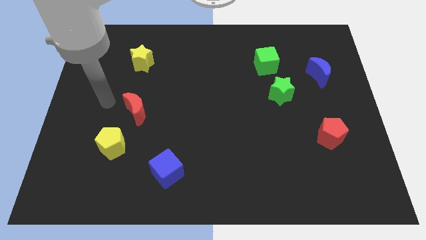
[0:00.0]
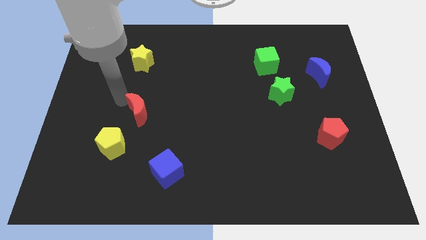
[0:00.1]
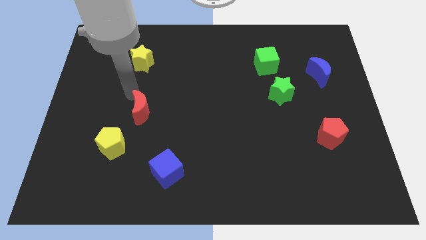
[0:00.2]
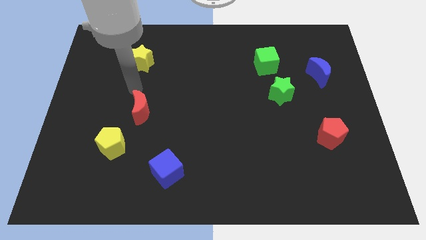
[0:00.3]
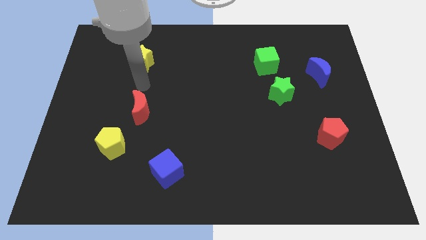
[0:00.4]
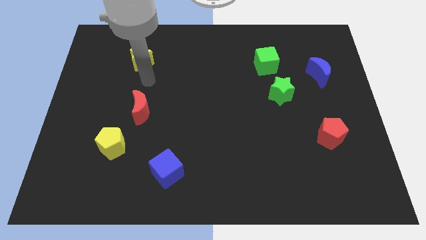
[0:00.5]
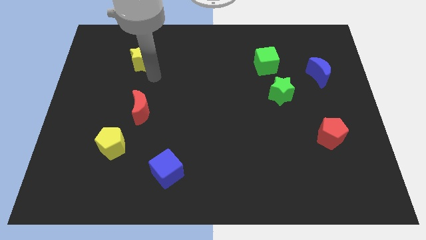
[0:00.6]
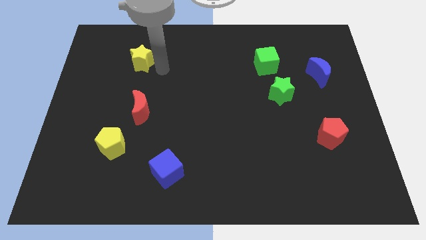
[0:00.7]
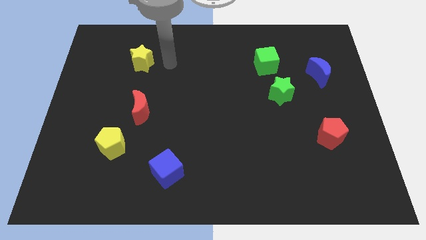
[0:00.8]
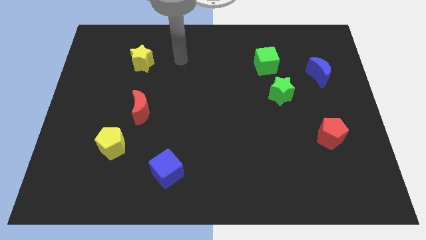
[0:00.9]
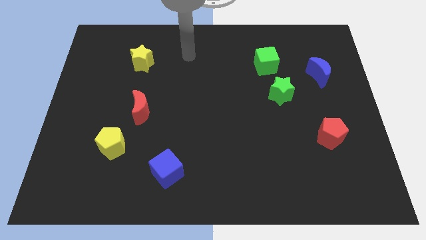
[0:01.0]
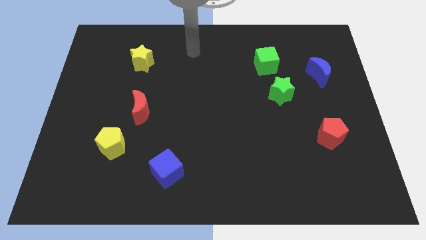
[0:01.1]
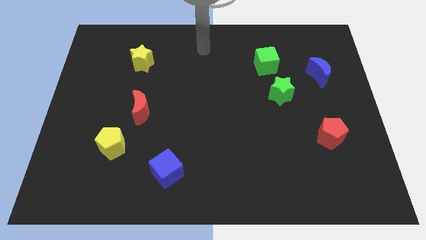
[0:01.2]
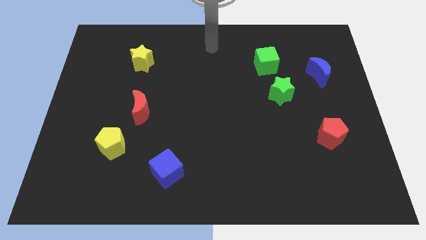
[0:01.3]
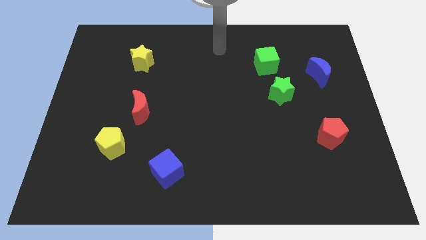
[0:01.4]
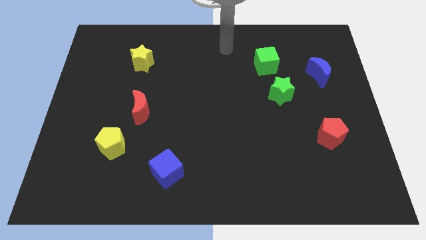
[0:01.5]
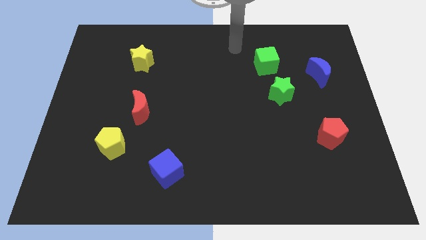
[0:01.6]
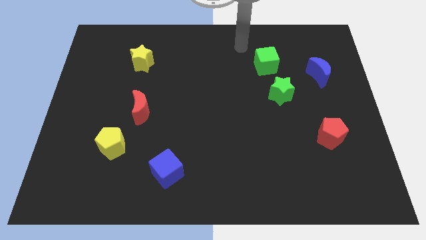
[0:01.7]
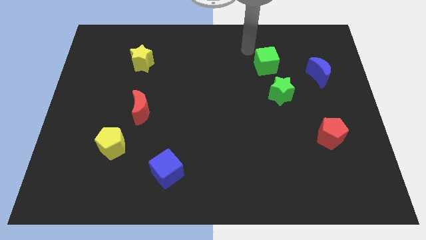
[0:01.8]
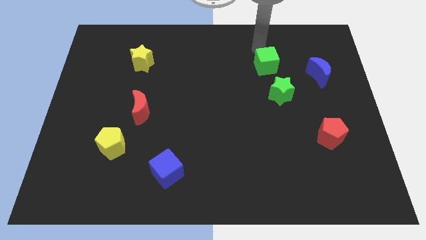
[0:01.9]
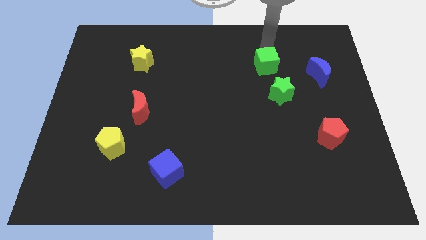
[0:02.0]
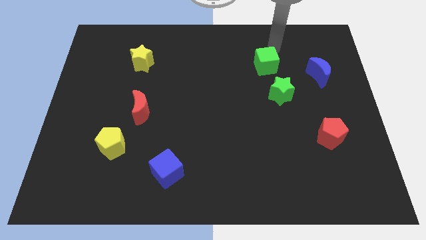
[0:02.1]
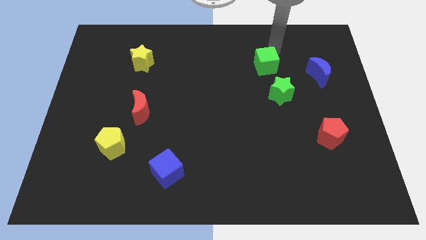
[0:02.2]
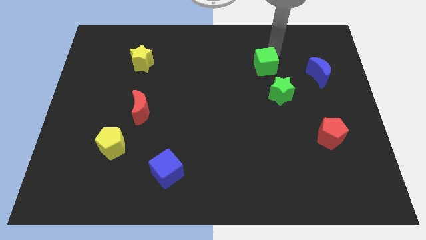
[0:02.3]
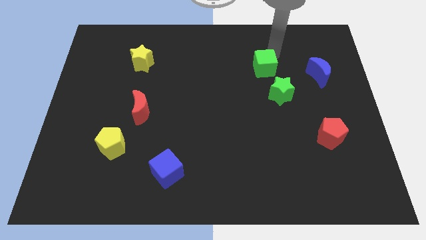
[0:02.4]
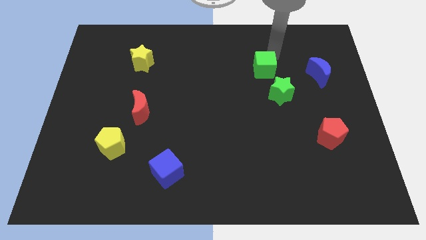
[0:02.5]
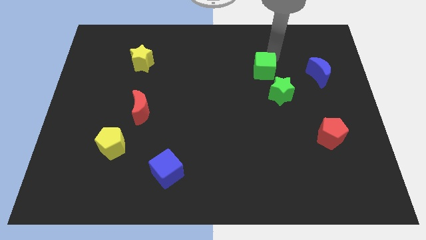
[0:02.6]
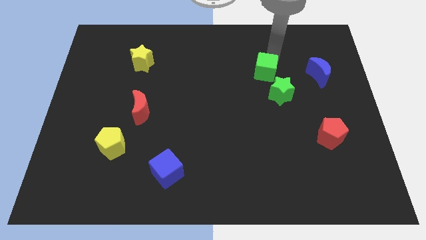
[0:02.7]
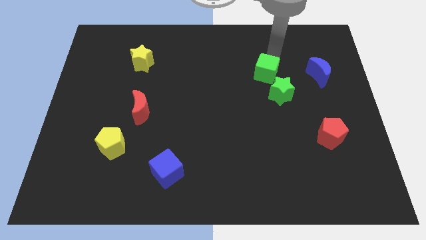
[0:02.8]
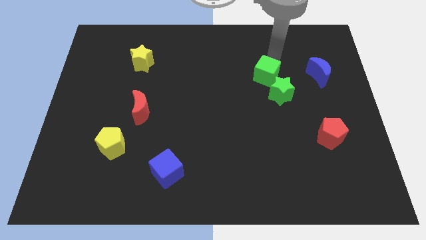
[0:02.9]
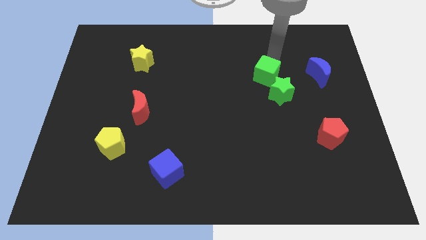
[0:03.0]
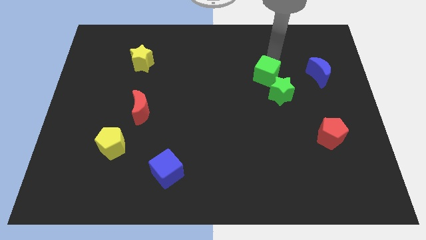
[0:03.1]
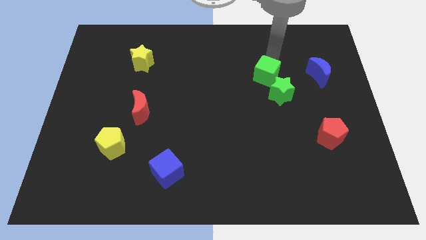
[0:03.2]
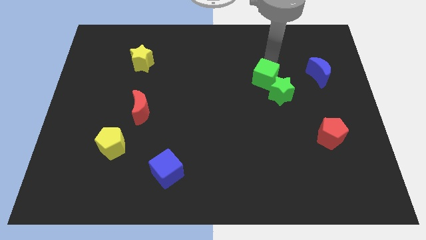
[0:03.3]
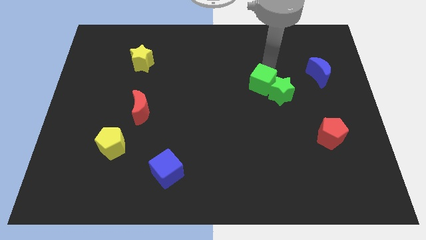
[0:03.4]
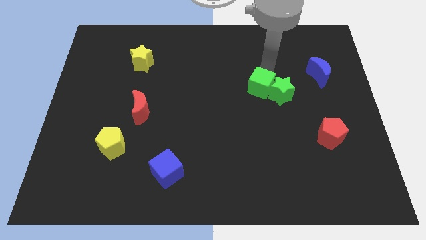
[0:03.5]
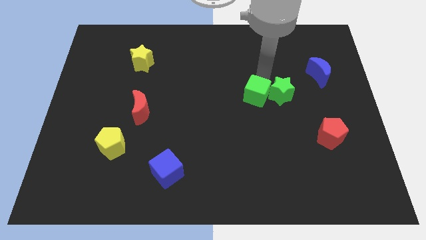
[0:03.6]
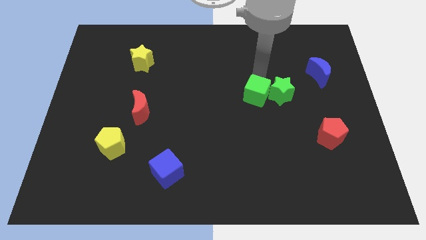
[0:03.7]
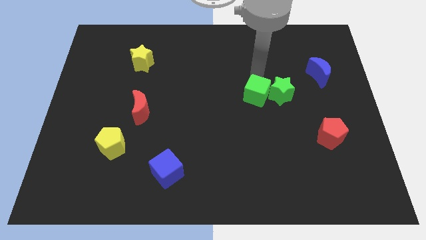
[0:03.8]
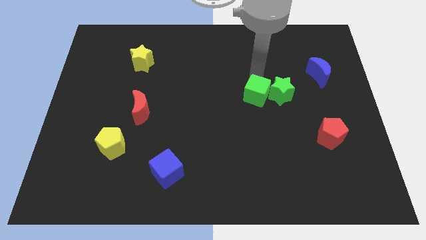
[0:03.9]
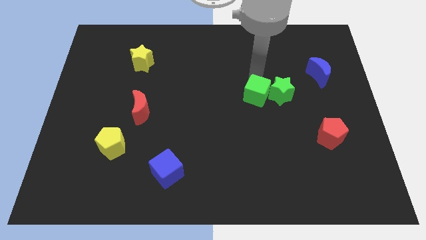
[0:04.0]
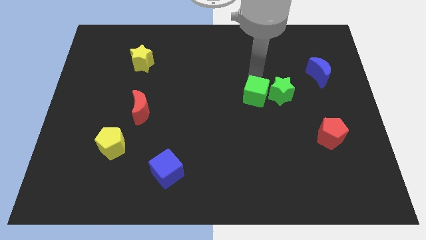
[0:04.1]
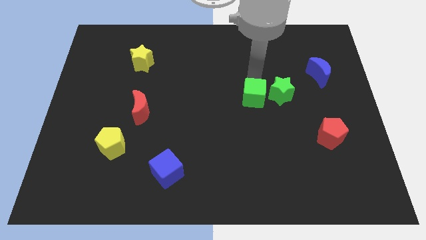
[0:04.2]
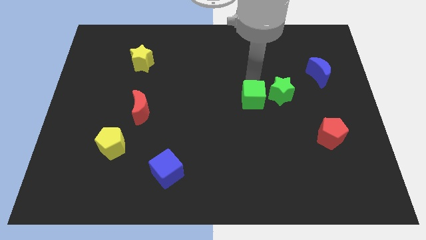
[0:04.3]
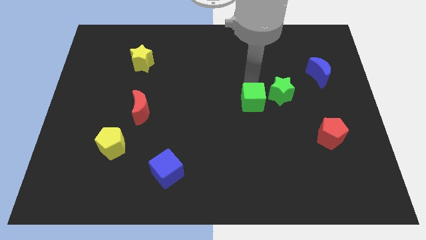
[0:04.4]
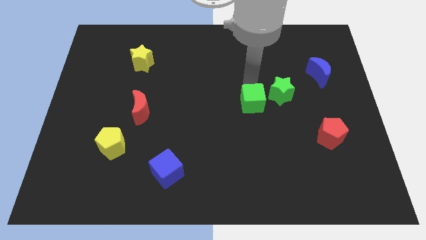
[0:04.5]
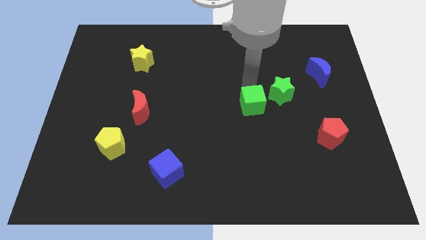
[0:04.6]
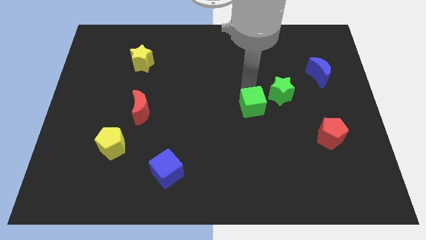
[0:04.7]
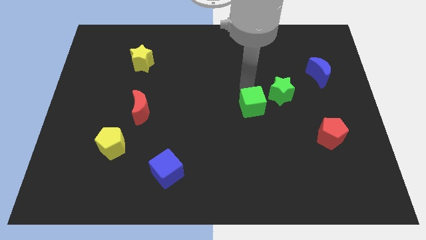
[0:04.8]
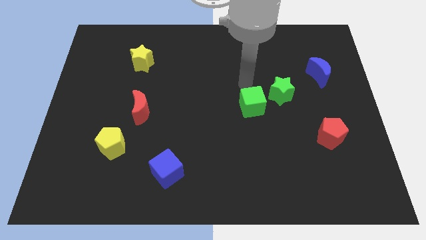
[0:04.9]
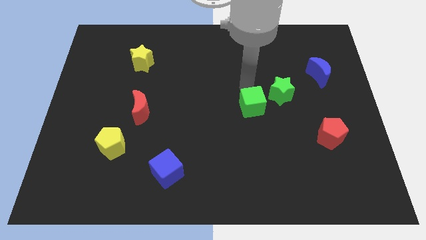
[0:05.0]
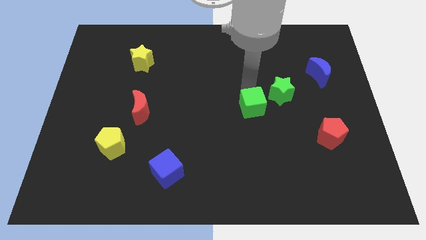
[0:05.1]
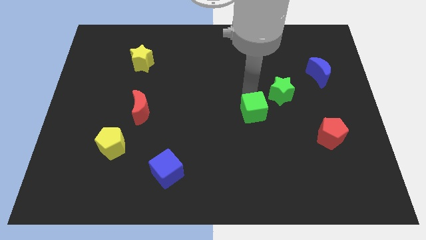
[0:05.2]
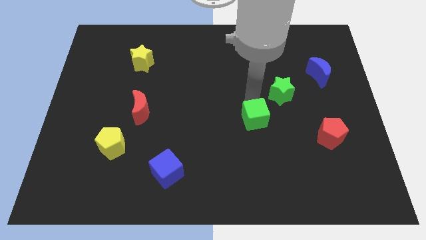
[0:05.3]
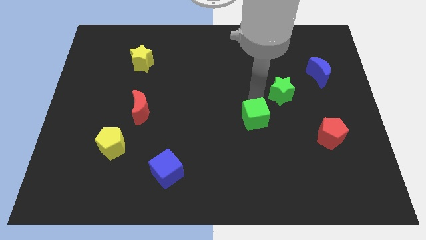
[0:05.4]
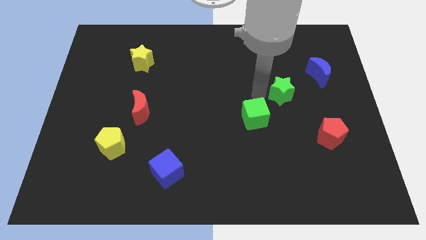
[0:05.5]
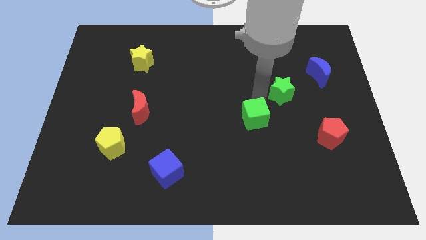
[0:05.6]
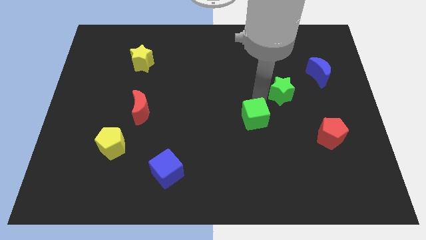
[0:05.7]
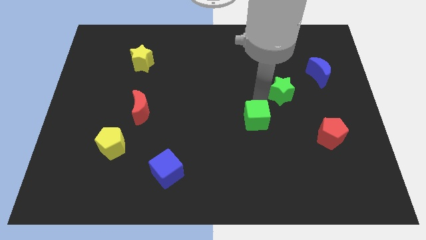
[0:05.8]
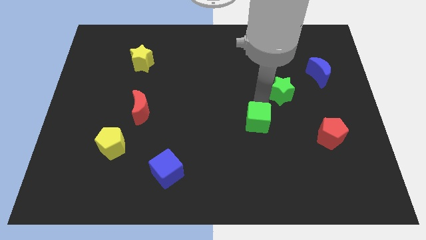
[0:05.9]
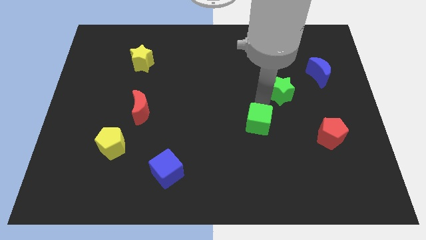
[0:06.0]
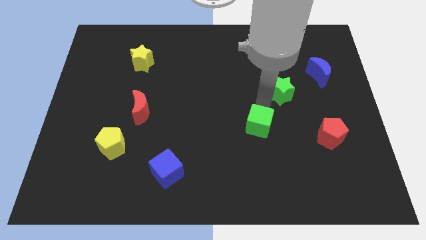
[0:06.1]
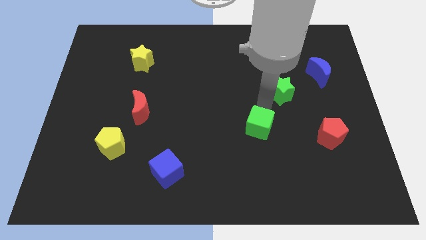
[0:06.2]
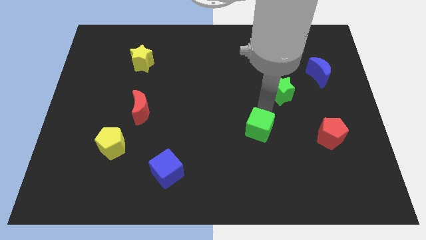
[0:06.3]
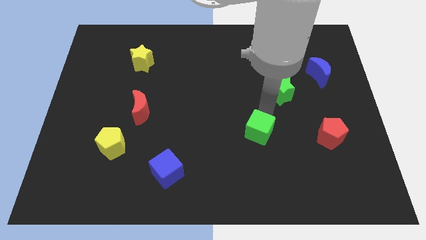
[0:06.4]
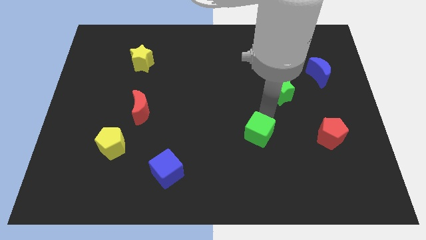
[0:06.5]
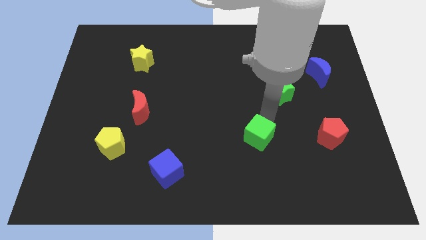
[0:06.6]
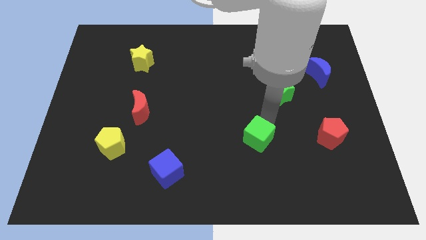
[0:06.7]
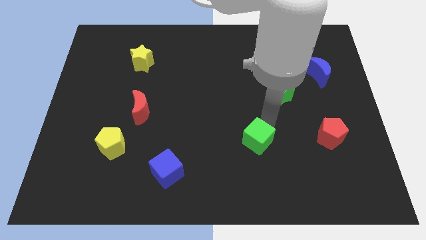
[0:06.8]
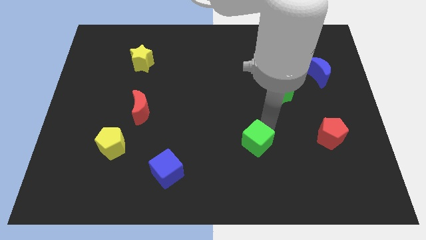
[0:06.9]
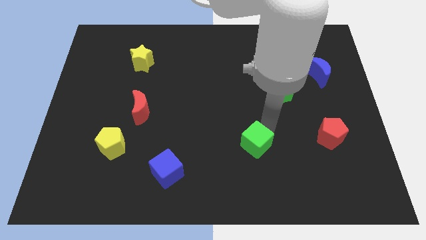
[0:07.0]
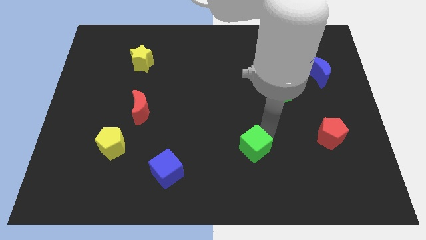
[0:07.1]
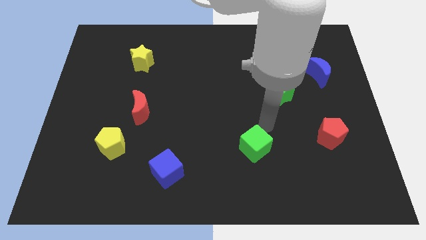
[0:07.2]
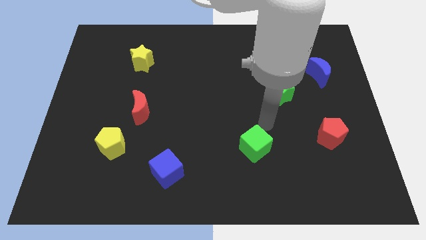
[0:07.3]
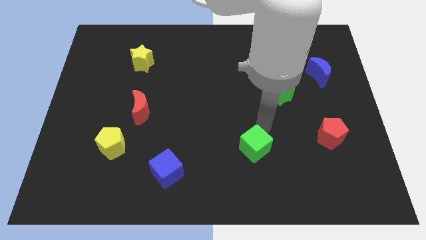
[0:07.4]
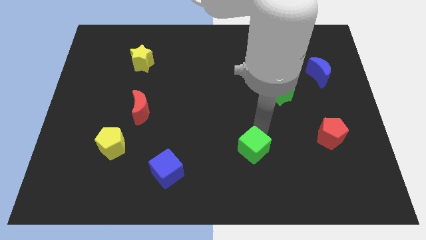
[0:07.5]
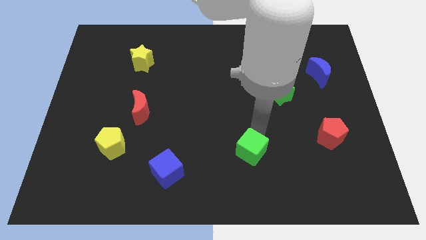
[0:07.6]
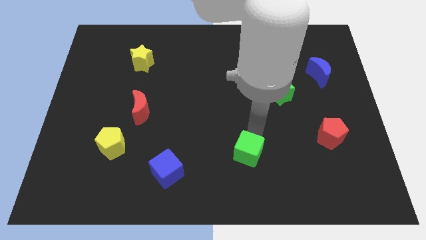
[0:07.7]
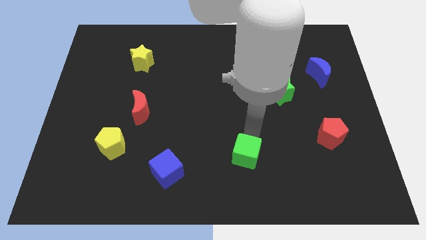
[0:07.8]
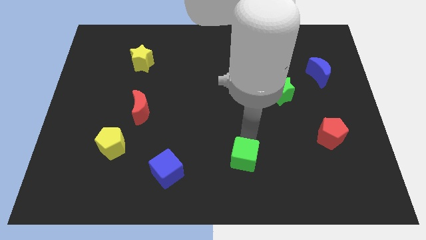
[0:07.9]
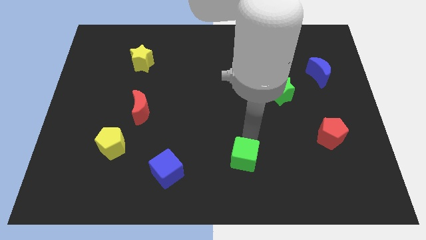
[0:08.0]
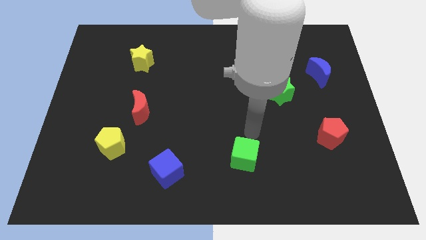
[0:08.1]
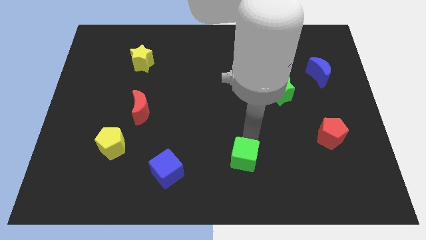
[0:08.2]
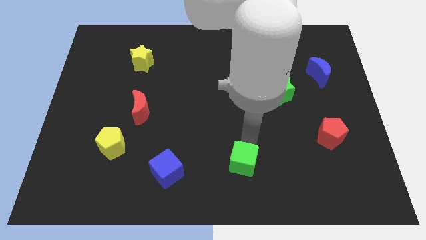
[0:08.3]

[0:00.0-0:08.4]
push the green cube to the bottom
